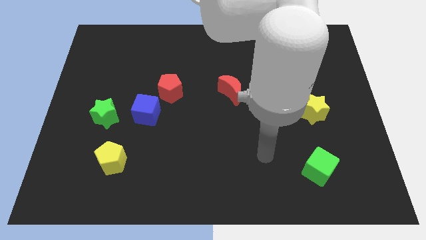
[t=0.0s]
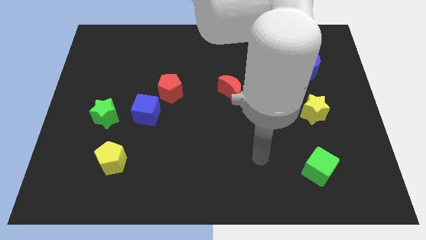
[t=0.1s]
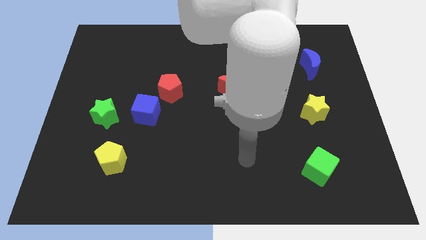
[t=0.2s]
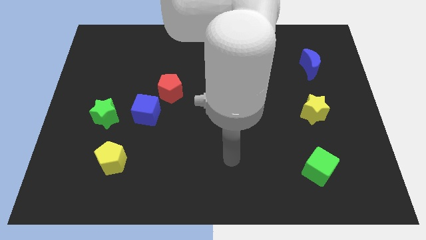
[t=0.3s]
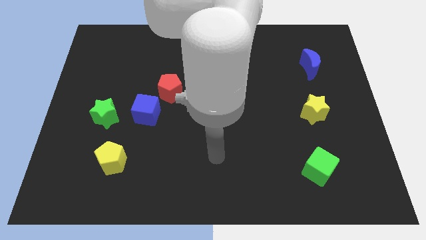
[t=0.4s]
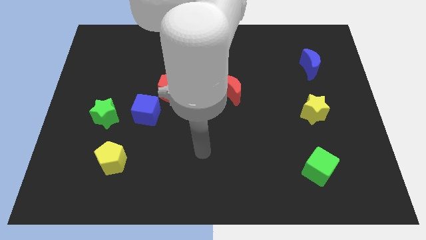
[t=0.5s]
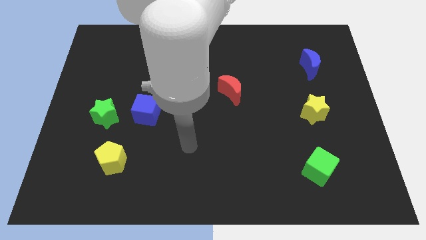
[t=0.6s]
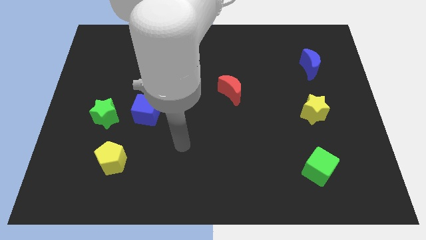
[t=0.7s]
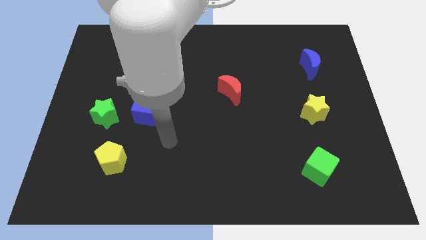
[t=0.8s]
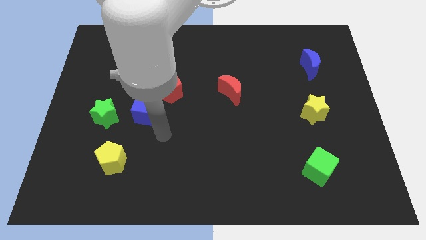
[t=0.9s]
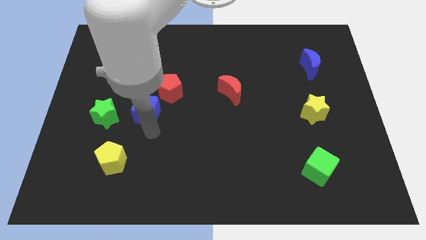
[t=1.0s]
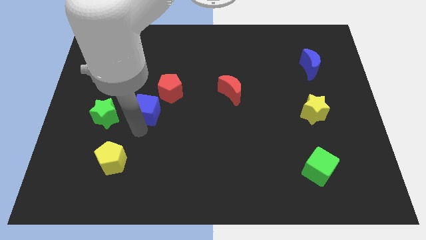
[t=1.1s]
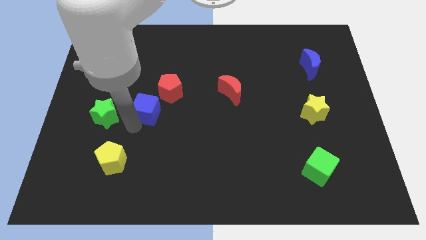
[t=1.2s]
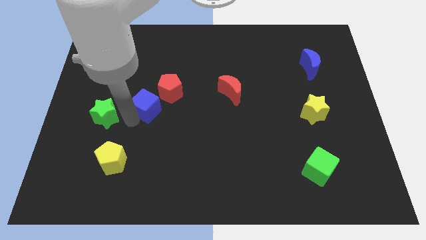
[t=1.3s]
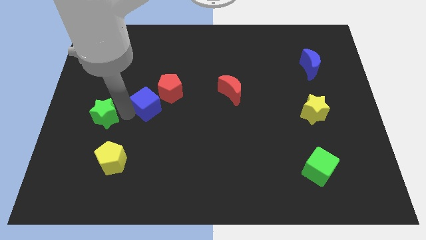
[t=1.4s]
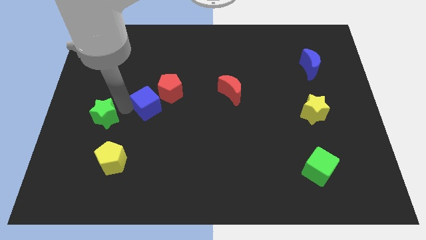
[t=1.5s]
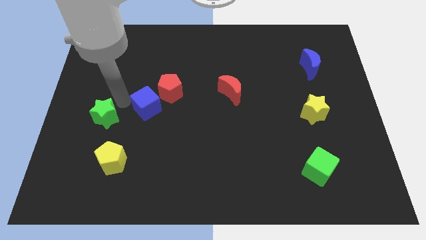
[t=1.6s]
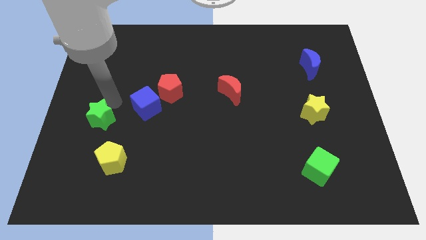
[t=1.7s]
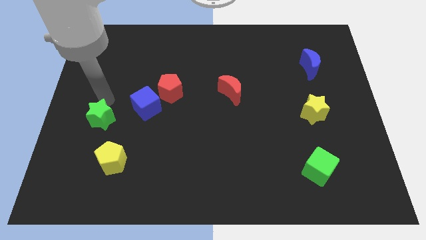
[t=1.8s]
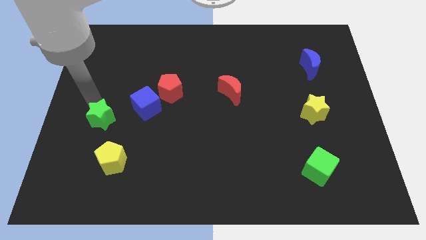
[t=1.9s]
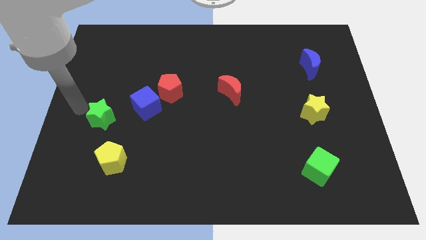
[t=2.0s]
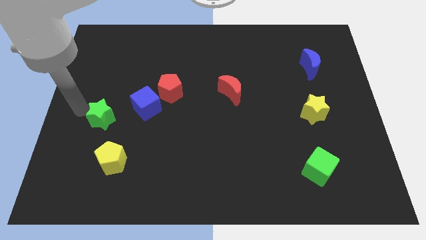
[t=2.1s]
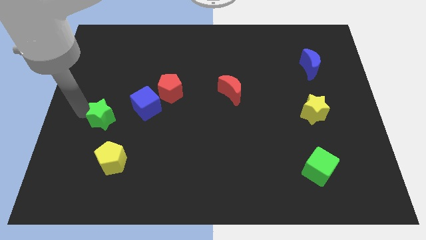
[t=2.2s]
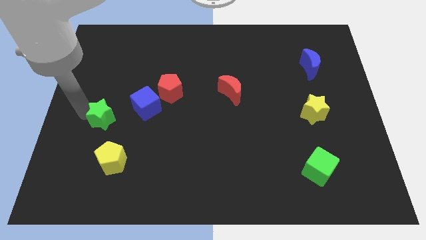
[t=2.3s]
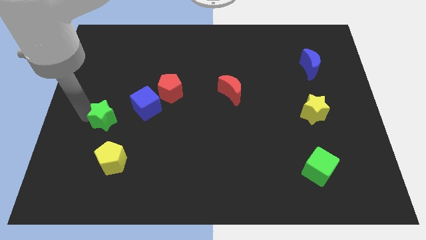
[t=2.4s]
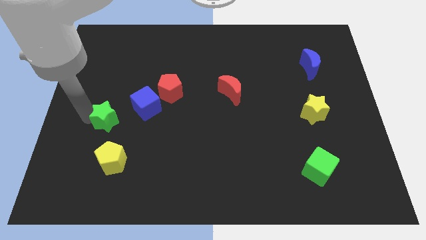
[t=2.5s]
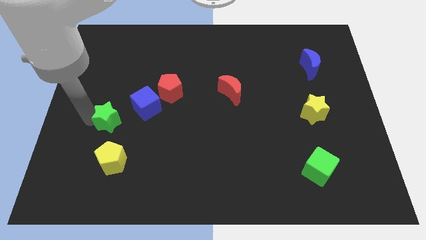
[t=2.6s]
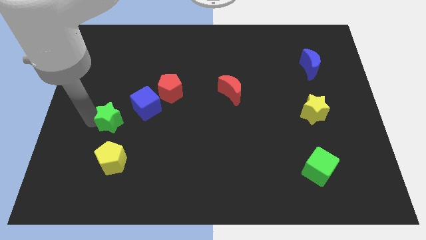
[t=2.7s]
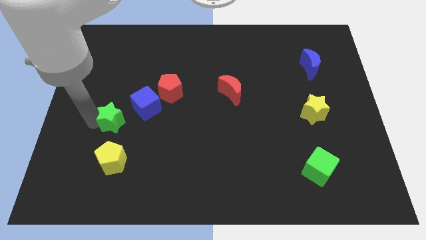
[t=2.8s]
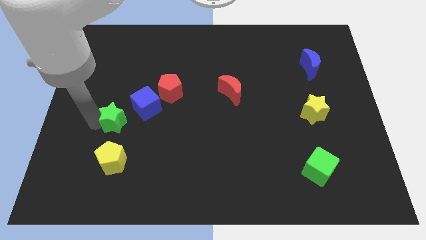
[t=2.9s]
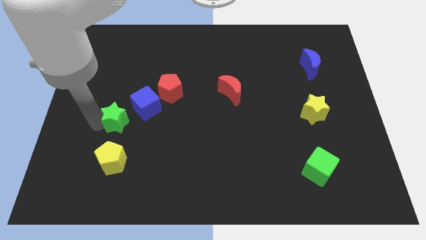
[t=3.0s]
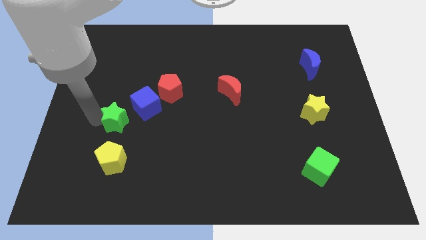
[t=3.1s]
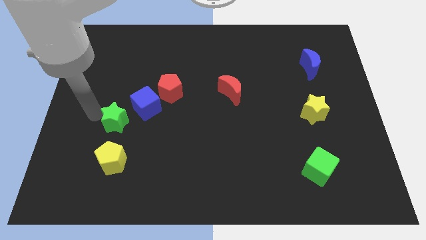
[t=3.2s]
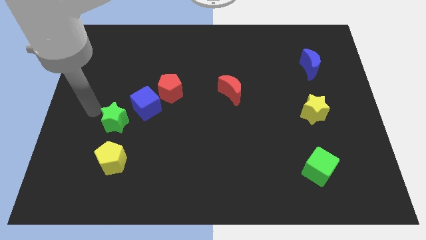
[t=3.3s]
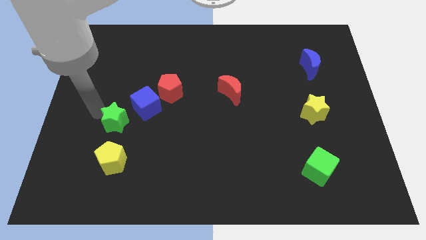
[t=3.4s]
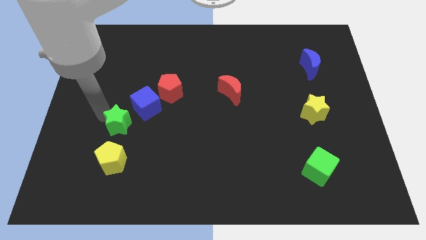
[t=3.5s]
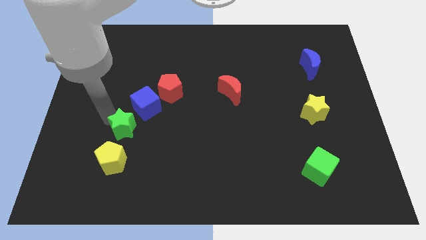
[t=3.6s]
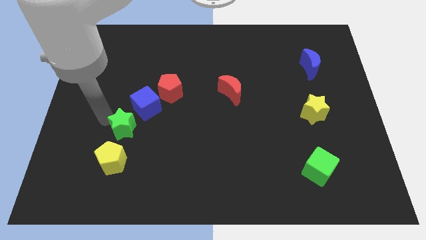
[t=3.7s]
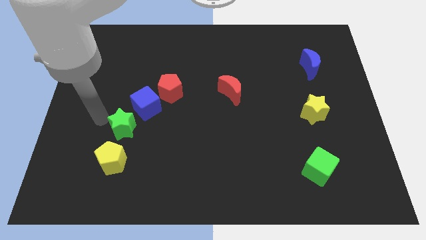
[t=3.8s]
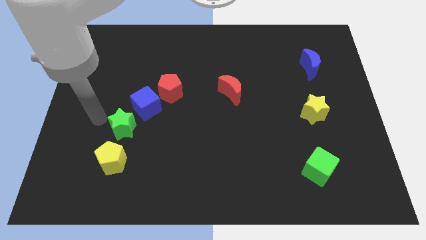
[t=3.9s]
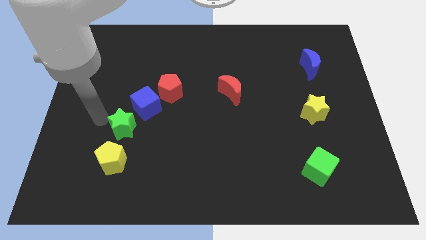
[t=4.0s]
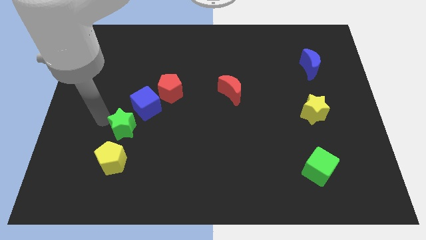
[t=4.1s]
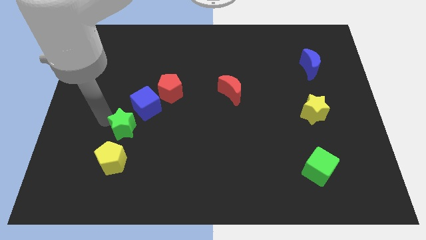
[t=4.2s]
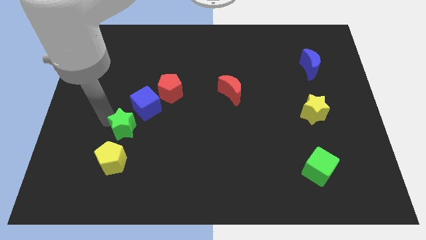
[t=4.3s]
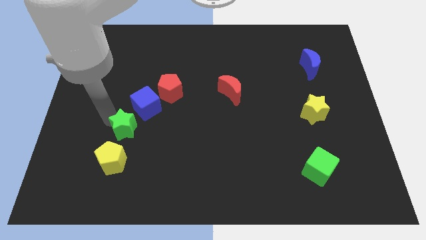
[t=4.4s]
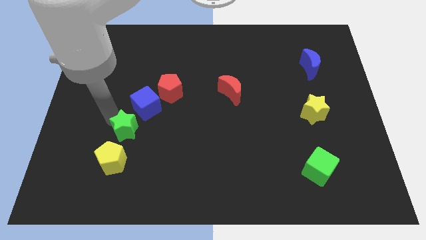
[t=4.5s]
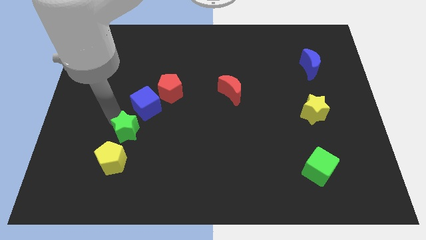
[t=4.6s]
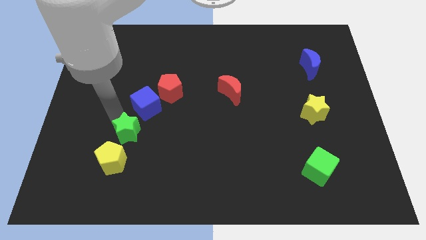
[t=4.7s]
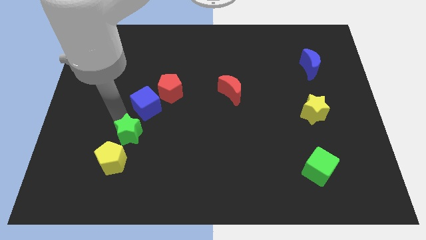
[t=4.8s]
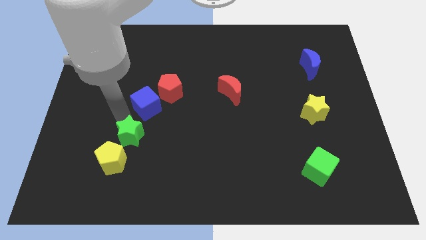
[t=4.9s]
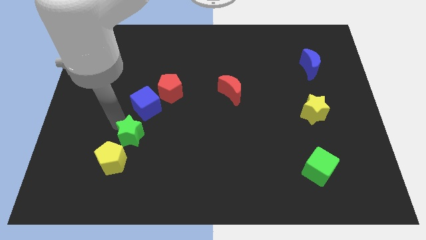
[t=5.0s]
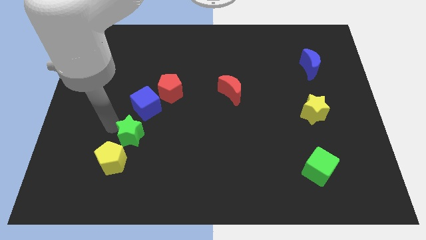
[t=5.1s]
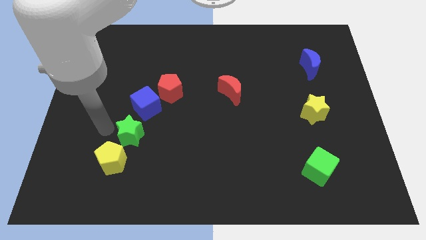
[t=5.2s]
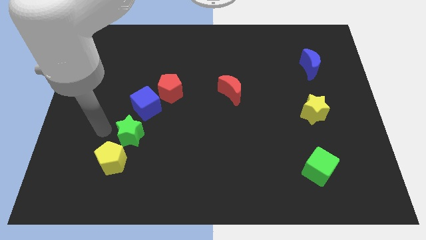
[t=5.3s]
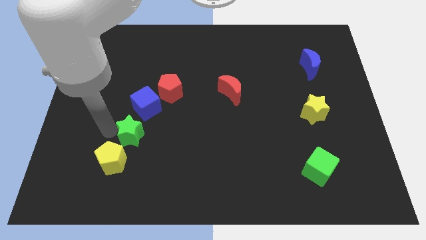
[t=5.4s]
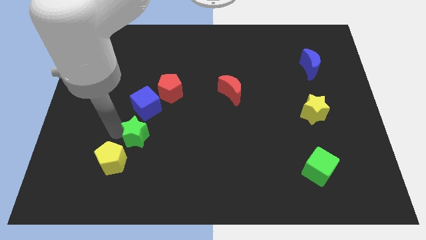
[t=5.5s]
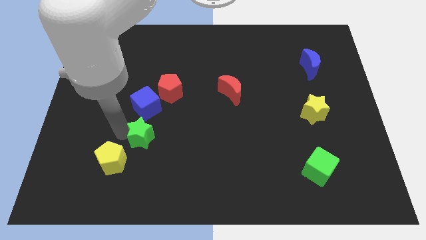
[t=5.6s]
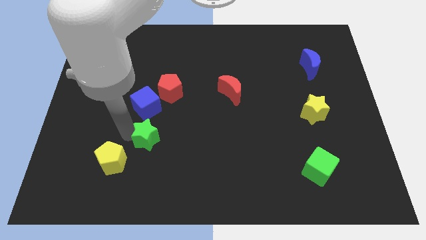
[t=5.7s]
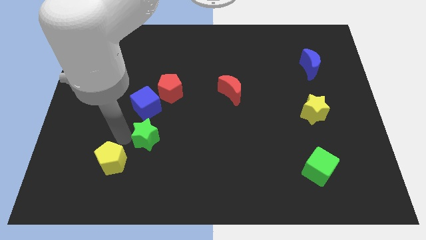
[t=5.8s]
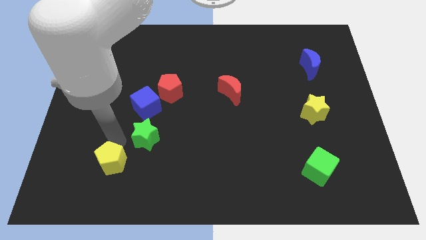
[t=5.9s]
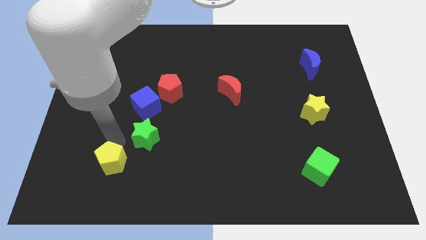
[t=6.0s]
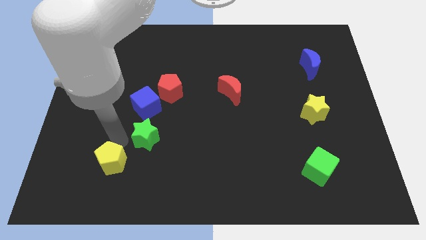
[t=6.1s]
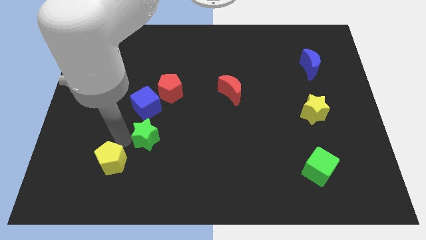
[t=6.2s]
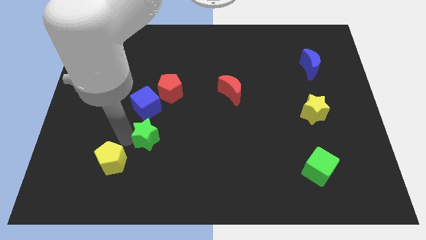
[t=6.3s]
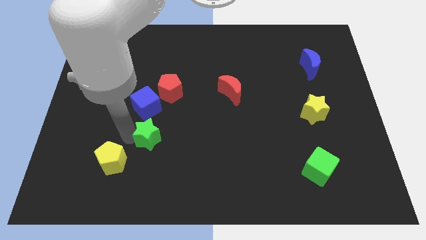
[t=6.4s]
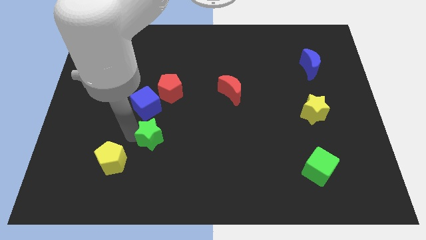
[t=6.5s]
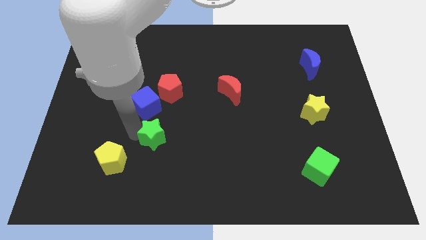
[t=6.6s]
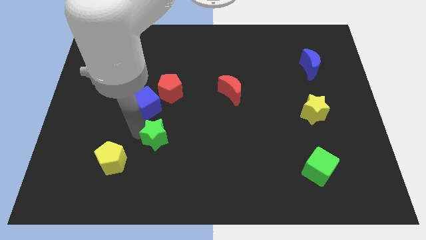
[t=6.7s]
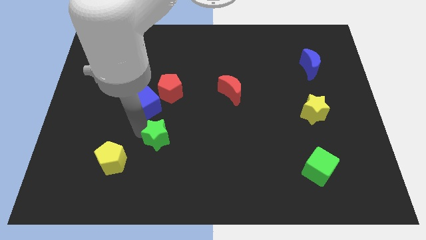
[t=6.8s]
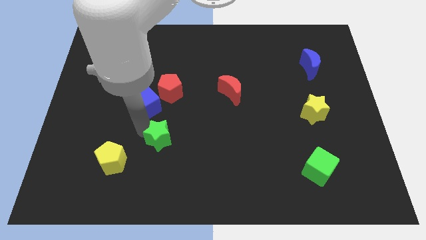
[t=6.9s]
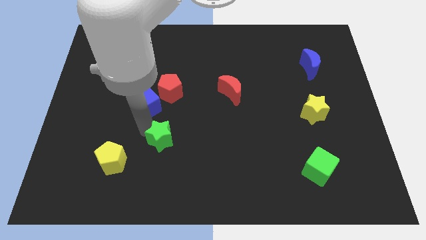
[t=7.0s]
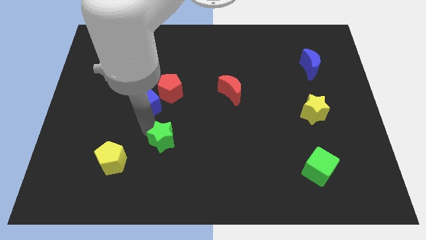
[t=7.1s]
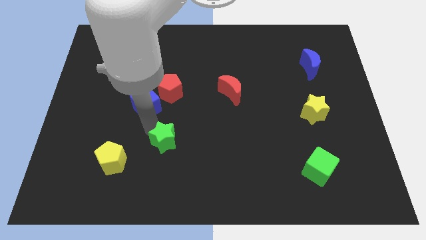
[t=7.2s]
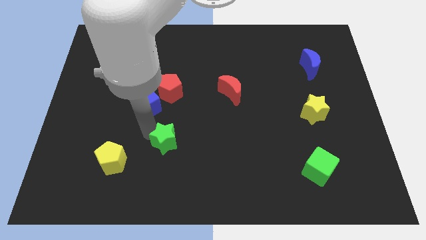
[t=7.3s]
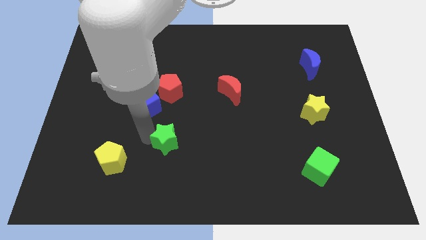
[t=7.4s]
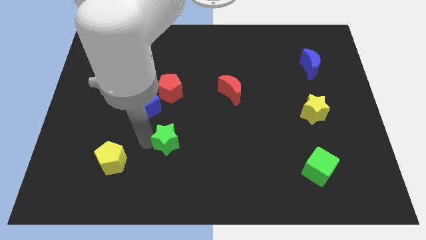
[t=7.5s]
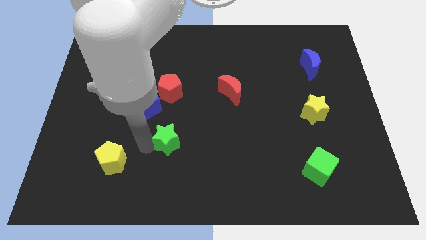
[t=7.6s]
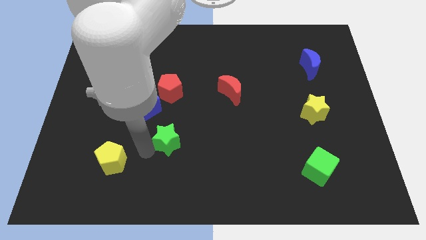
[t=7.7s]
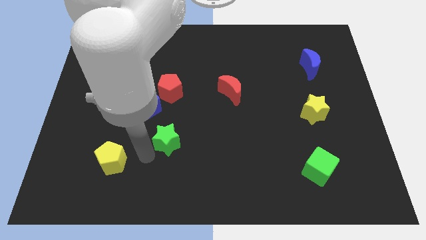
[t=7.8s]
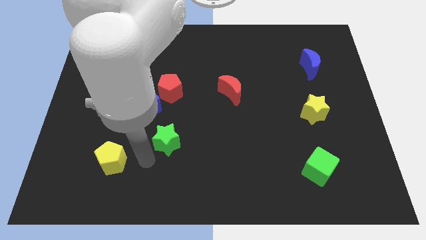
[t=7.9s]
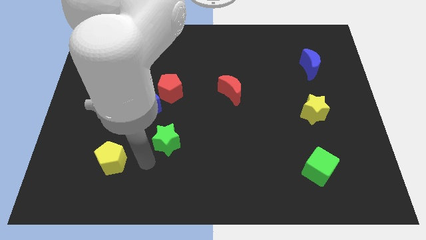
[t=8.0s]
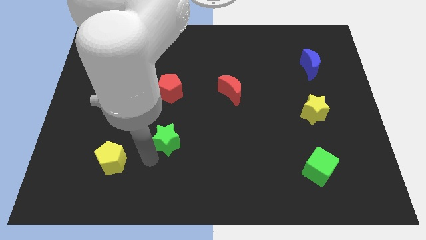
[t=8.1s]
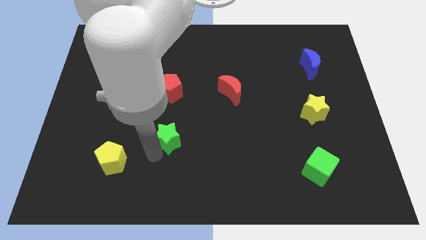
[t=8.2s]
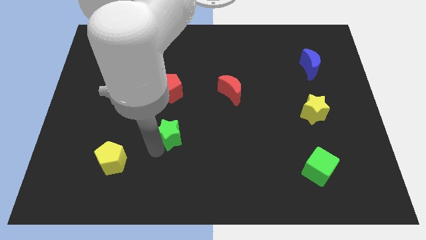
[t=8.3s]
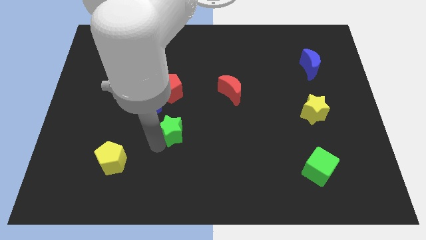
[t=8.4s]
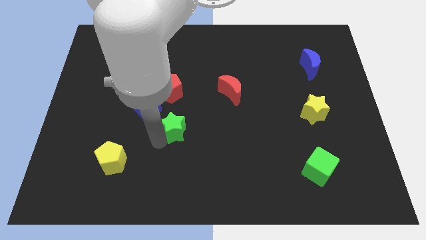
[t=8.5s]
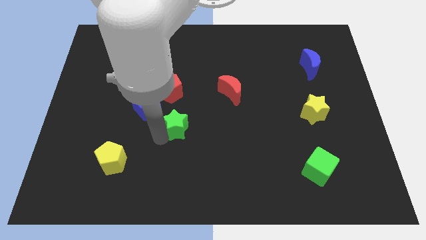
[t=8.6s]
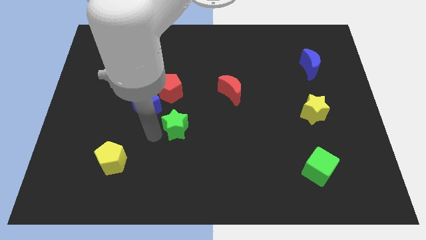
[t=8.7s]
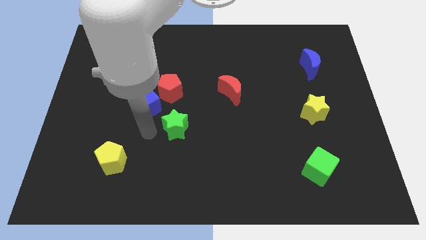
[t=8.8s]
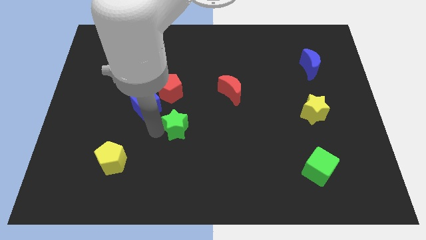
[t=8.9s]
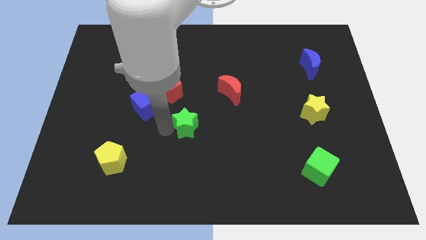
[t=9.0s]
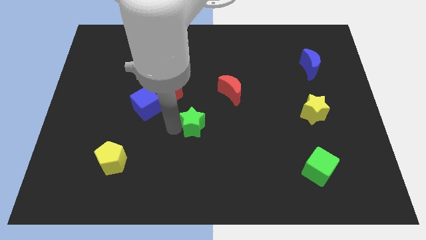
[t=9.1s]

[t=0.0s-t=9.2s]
slide the green star to the right
